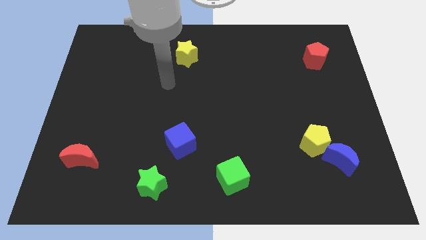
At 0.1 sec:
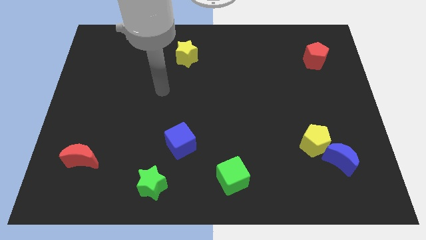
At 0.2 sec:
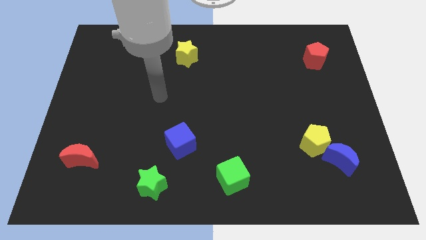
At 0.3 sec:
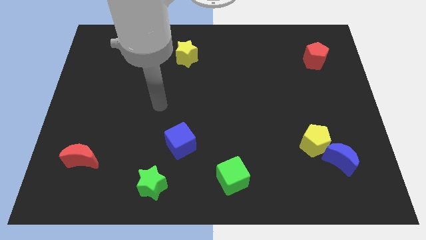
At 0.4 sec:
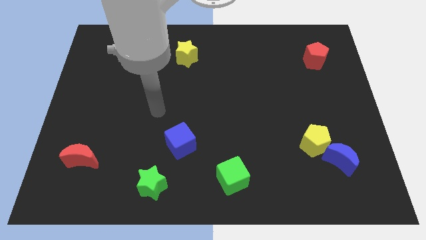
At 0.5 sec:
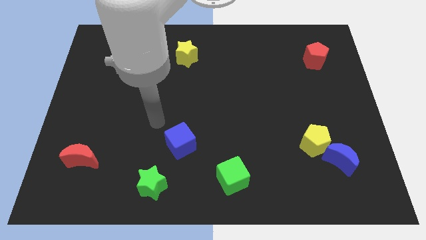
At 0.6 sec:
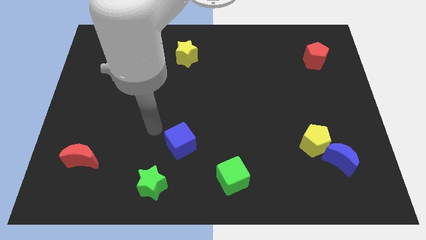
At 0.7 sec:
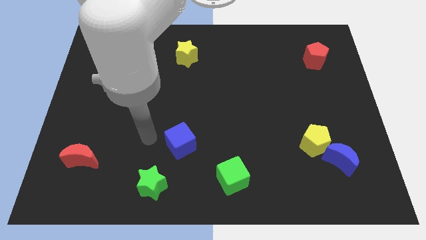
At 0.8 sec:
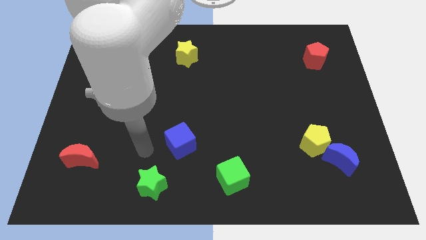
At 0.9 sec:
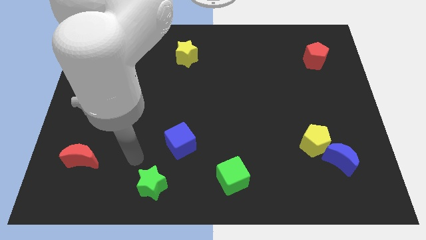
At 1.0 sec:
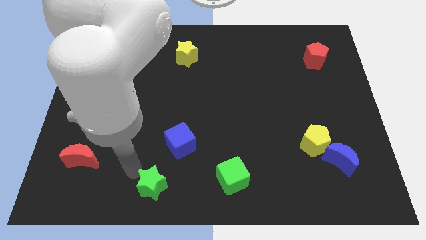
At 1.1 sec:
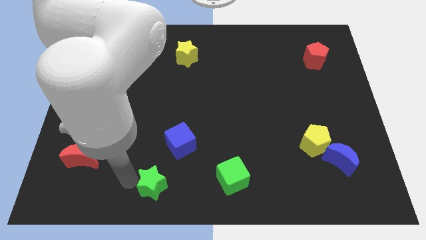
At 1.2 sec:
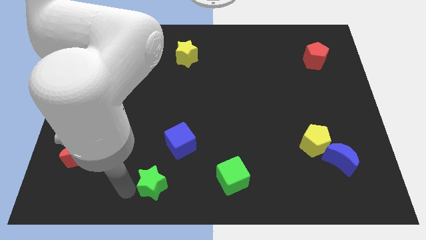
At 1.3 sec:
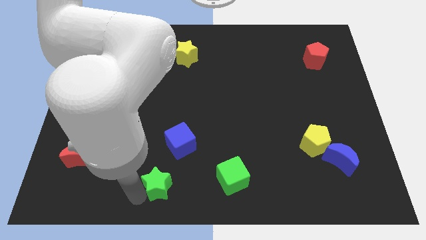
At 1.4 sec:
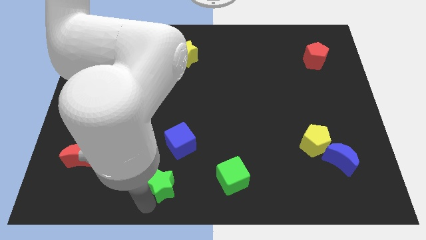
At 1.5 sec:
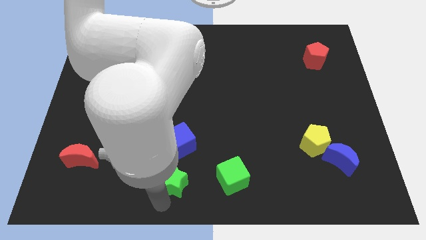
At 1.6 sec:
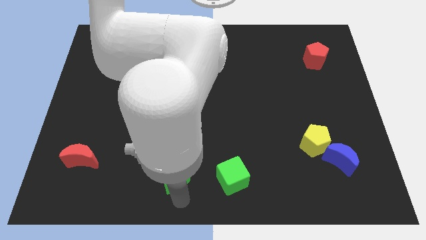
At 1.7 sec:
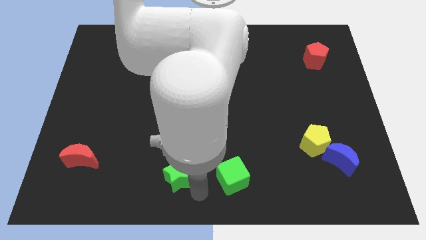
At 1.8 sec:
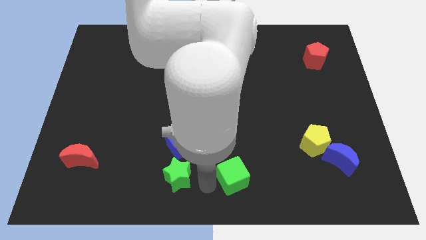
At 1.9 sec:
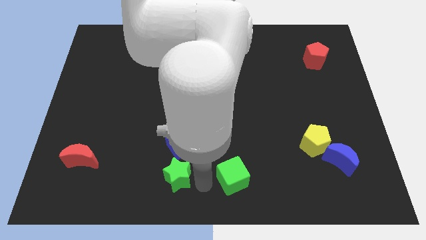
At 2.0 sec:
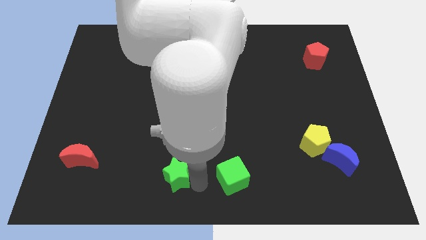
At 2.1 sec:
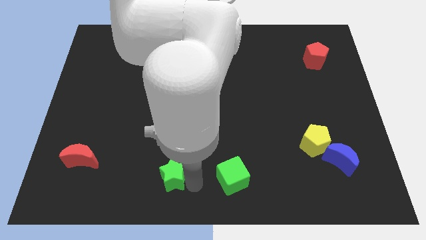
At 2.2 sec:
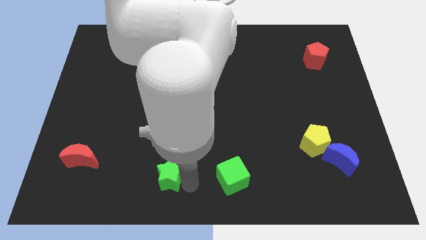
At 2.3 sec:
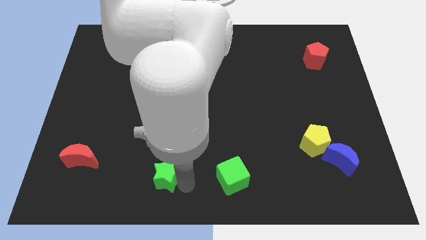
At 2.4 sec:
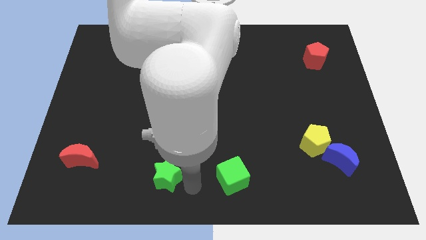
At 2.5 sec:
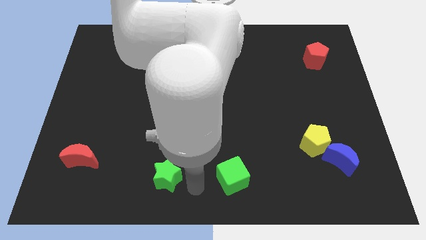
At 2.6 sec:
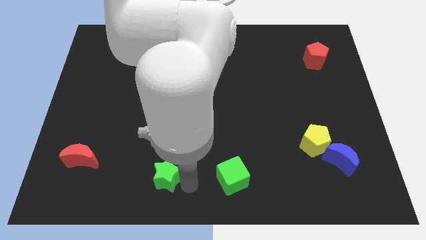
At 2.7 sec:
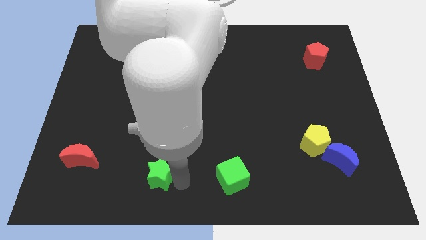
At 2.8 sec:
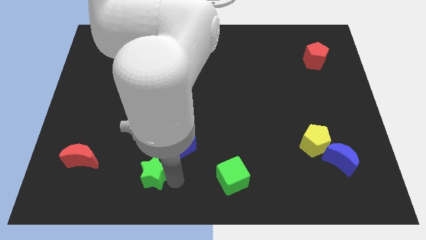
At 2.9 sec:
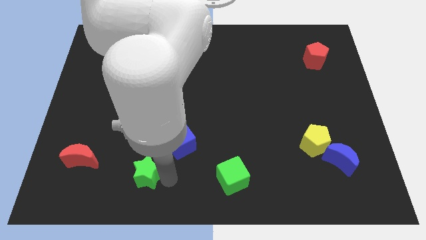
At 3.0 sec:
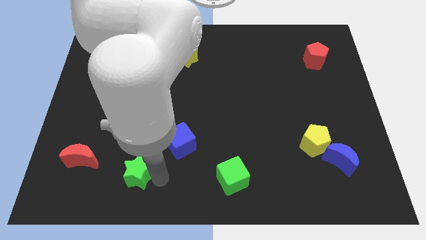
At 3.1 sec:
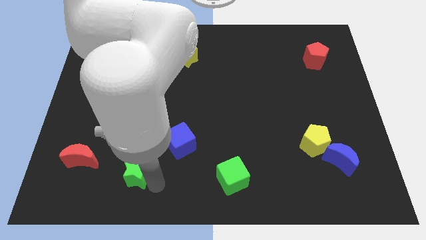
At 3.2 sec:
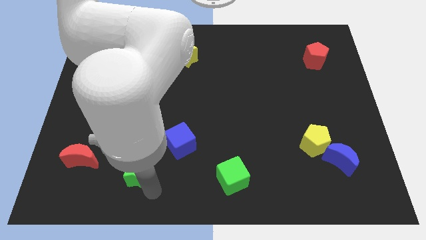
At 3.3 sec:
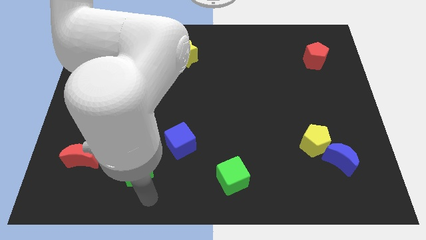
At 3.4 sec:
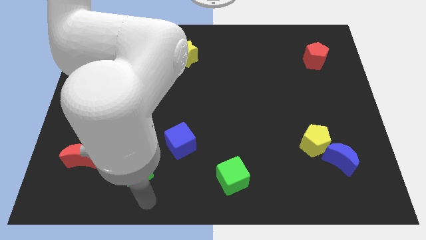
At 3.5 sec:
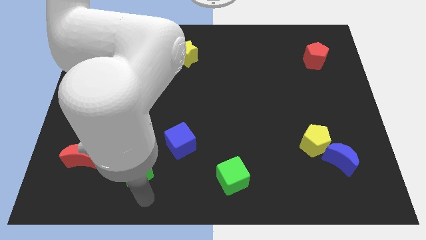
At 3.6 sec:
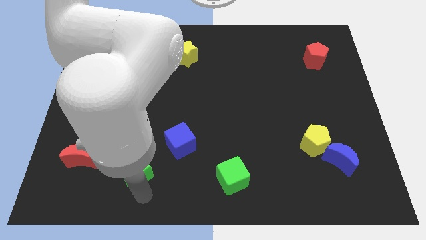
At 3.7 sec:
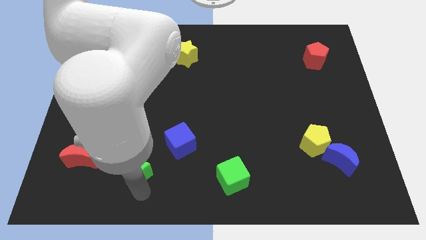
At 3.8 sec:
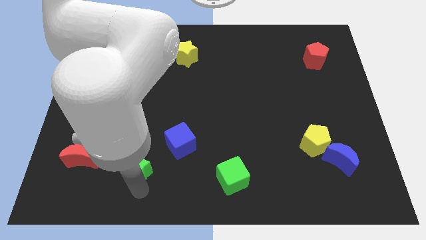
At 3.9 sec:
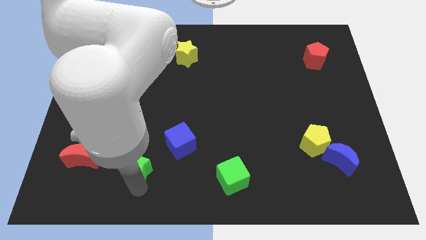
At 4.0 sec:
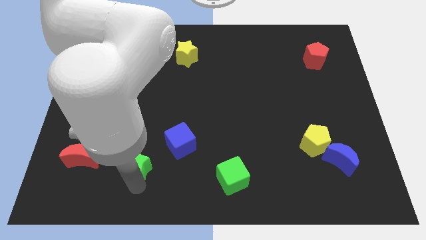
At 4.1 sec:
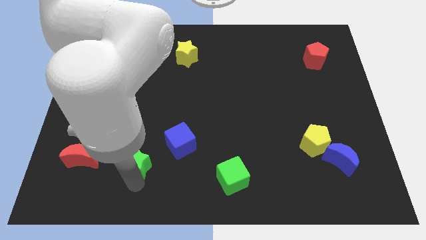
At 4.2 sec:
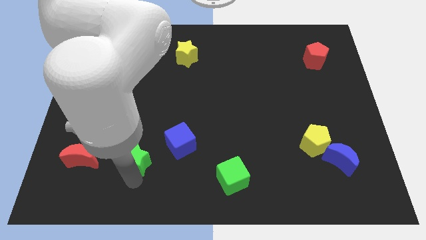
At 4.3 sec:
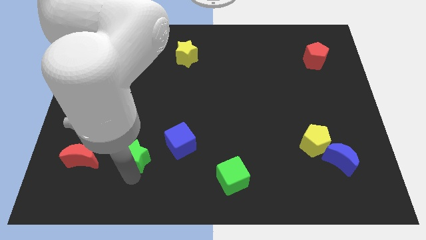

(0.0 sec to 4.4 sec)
slightly slide the green star up and left

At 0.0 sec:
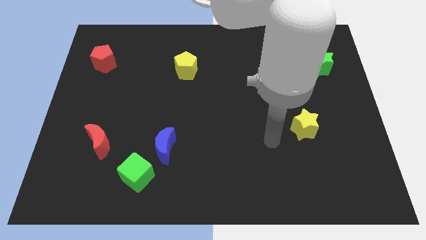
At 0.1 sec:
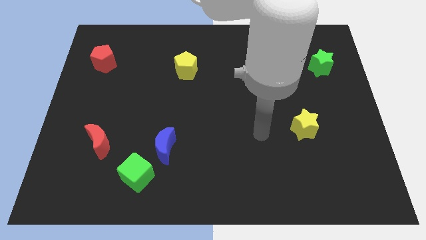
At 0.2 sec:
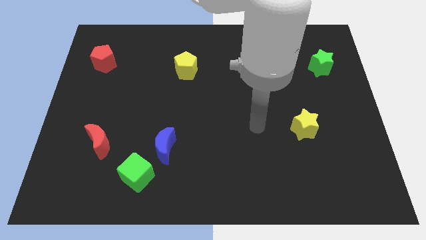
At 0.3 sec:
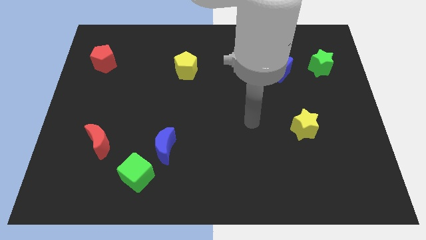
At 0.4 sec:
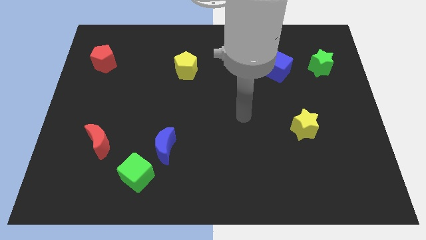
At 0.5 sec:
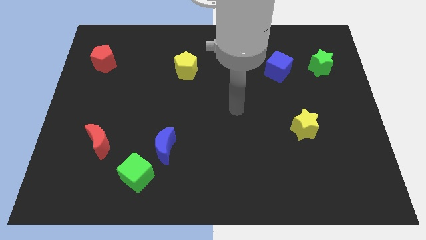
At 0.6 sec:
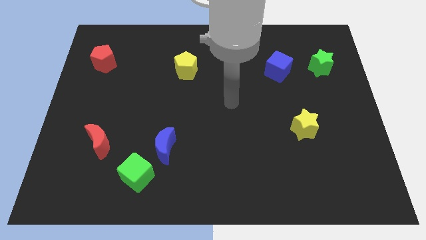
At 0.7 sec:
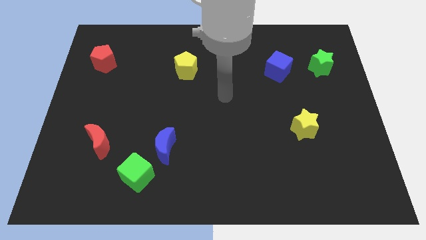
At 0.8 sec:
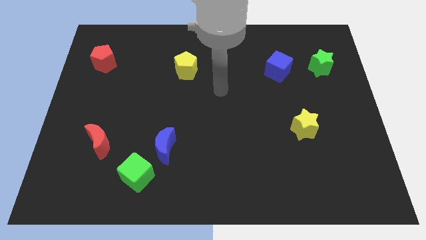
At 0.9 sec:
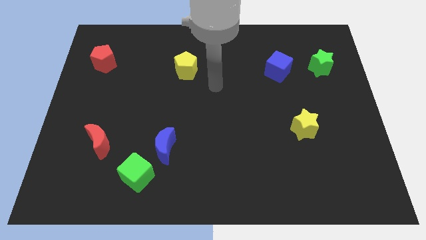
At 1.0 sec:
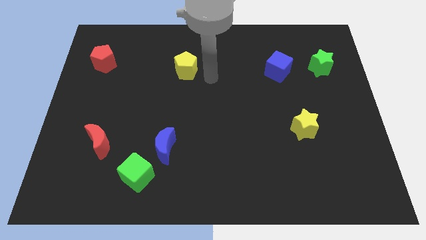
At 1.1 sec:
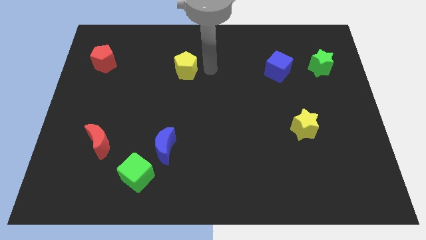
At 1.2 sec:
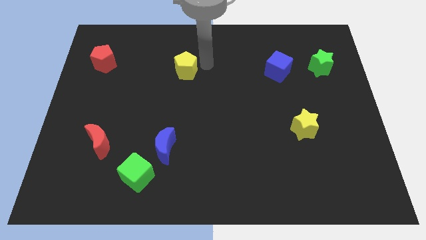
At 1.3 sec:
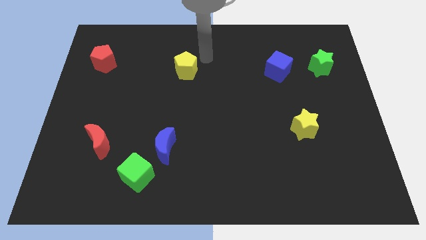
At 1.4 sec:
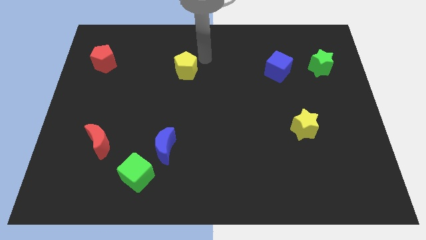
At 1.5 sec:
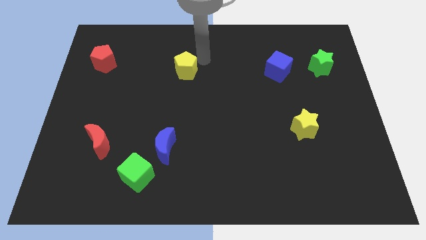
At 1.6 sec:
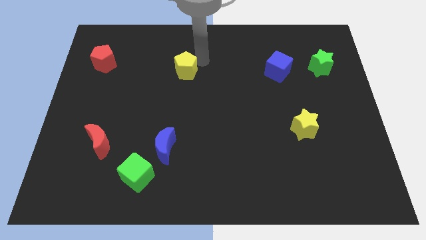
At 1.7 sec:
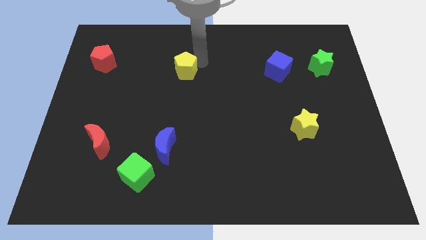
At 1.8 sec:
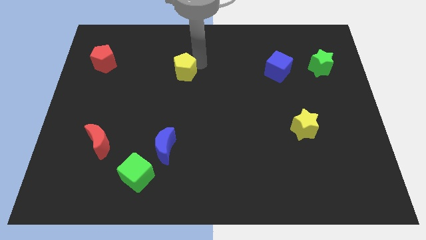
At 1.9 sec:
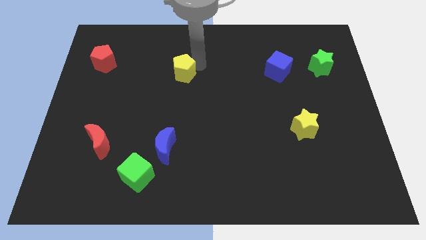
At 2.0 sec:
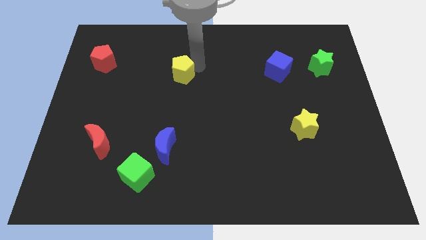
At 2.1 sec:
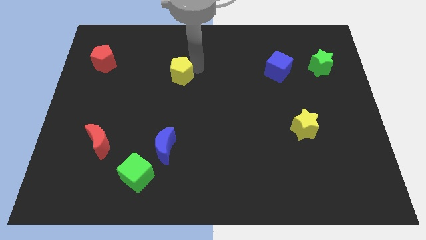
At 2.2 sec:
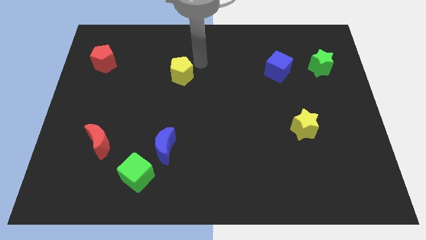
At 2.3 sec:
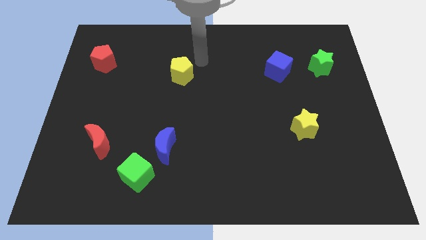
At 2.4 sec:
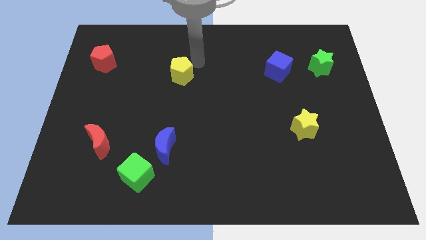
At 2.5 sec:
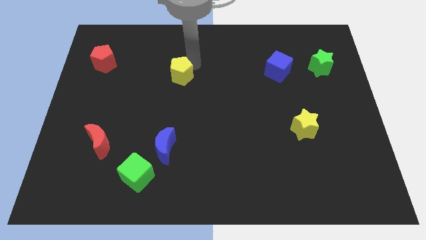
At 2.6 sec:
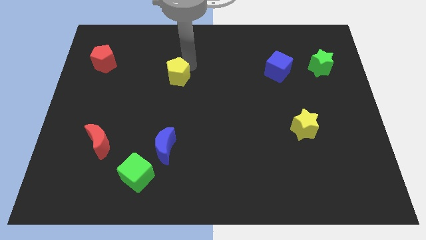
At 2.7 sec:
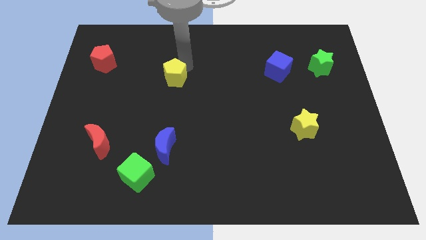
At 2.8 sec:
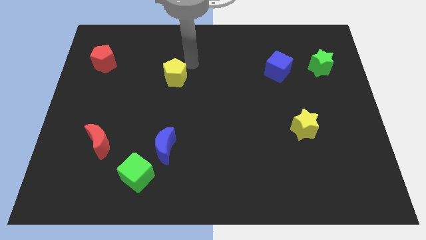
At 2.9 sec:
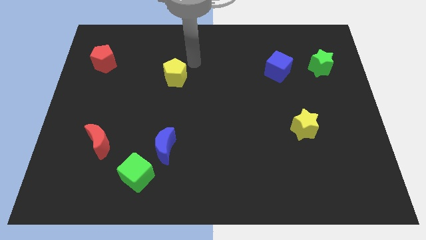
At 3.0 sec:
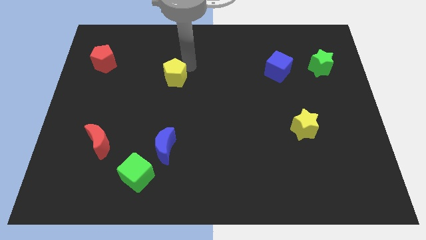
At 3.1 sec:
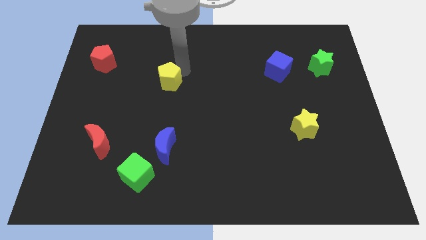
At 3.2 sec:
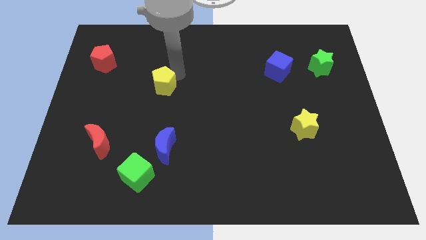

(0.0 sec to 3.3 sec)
move the yellow pentagon slightly down and left

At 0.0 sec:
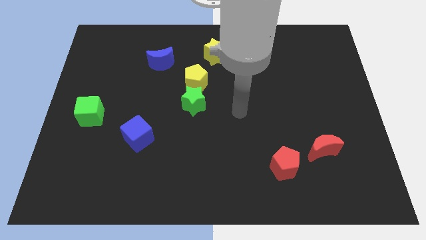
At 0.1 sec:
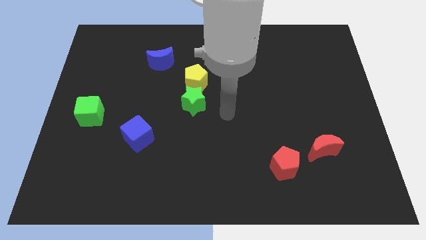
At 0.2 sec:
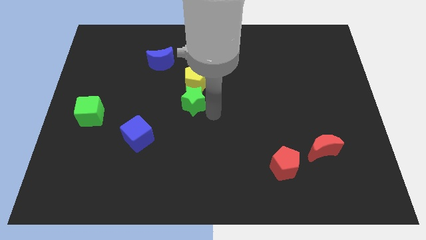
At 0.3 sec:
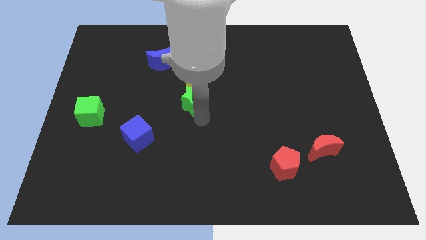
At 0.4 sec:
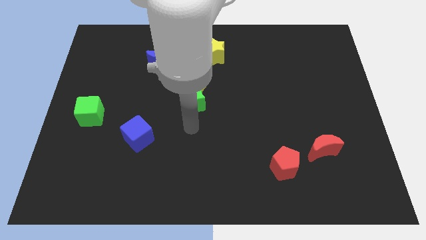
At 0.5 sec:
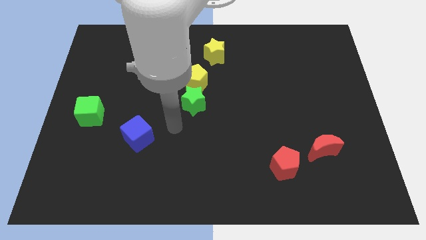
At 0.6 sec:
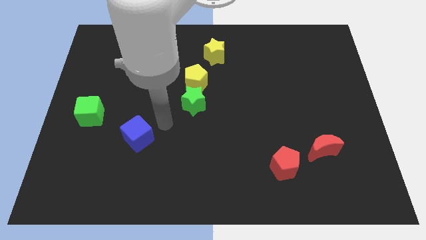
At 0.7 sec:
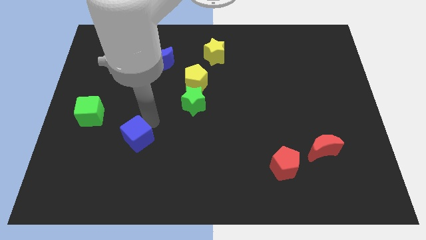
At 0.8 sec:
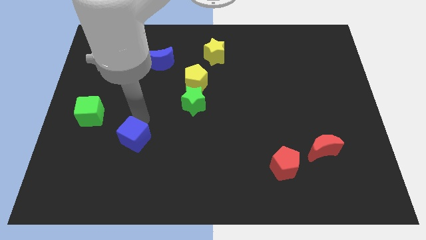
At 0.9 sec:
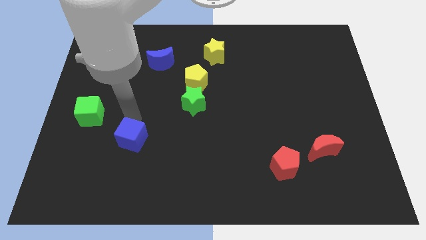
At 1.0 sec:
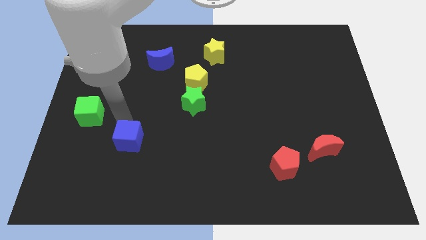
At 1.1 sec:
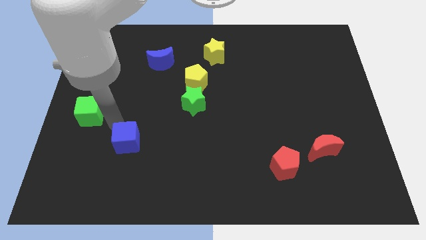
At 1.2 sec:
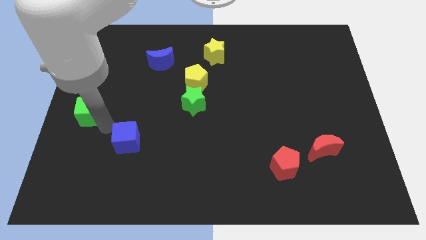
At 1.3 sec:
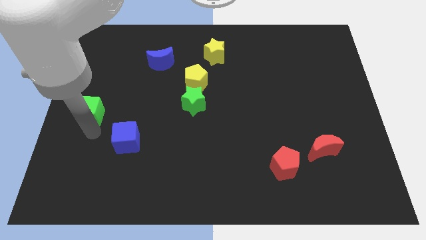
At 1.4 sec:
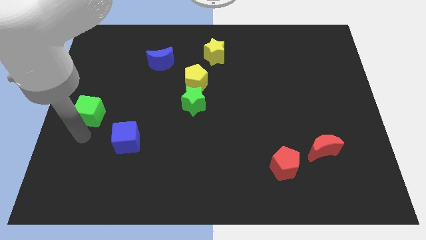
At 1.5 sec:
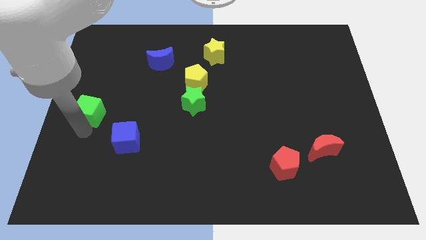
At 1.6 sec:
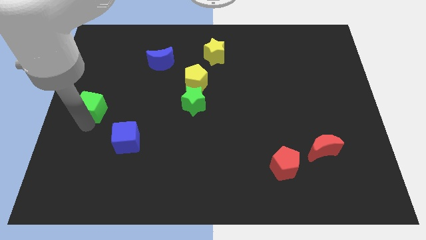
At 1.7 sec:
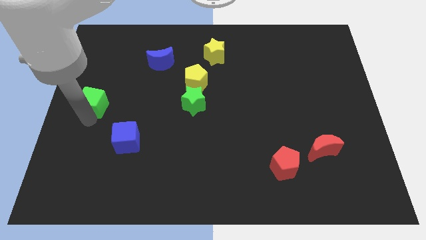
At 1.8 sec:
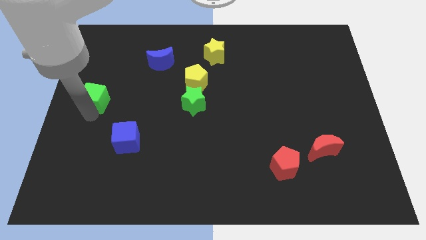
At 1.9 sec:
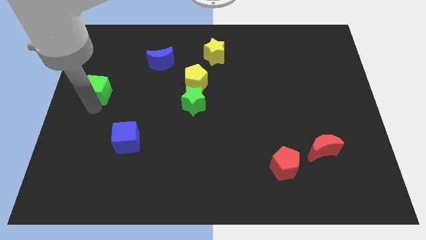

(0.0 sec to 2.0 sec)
push the green cube upwards a bit
